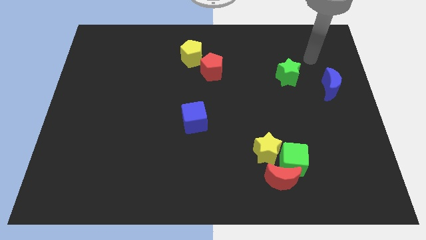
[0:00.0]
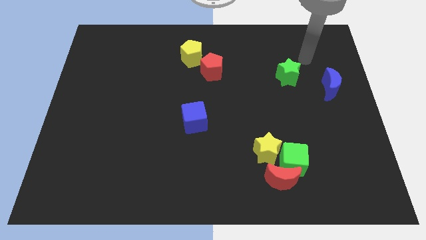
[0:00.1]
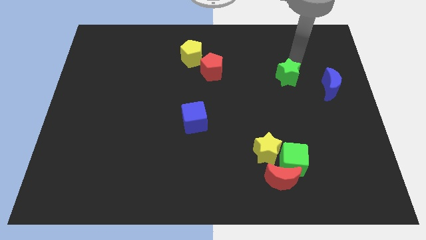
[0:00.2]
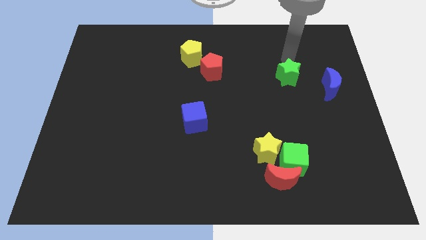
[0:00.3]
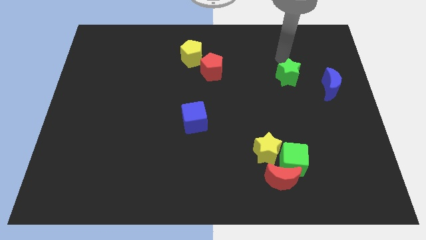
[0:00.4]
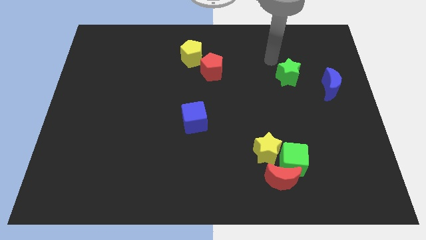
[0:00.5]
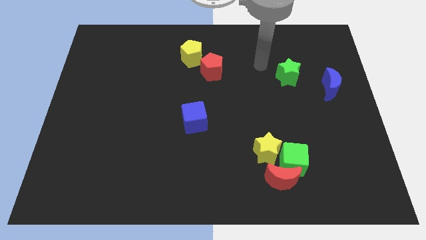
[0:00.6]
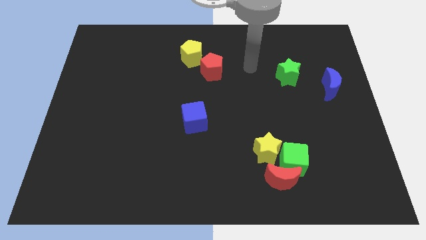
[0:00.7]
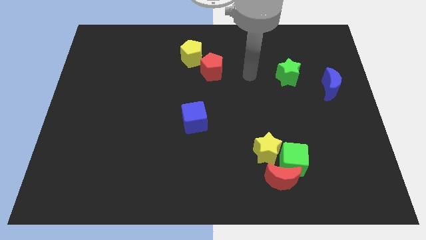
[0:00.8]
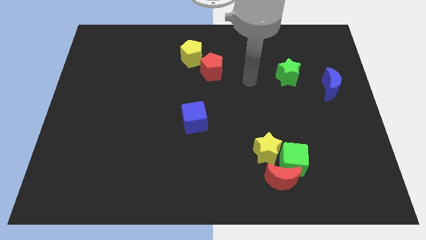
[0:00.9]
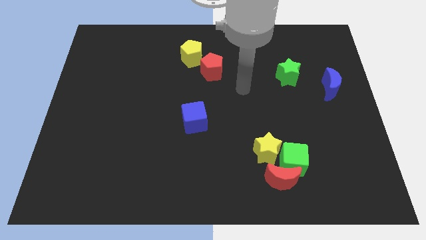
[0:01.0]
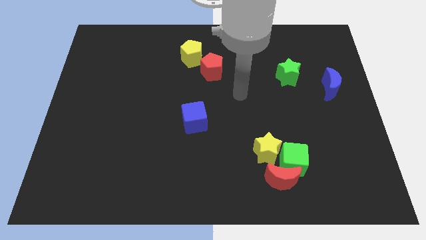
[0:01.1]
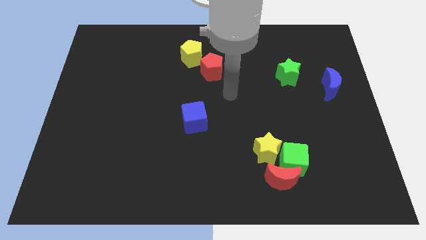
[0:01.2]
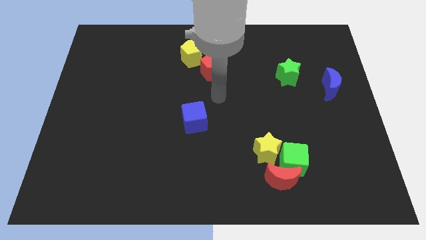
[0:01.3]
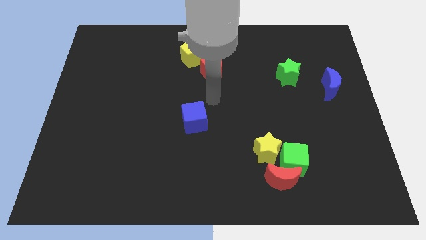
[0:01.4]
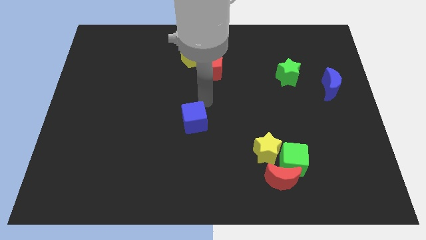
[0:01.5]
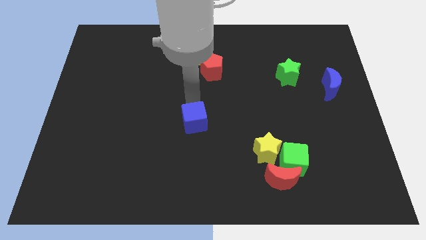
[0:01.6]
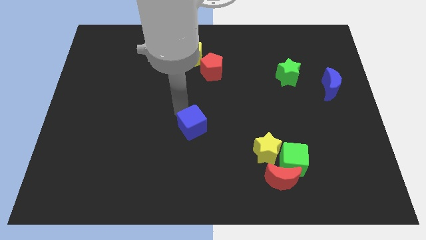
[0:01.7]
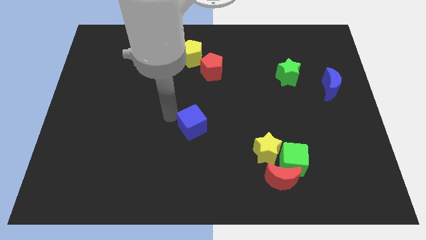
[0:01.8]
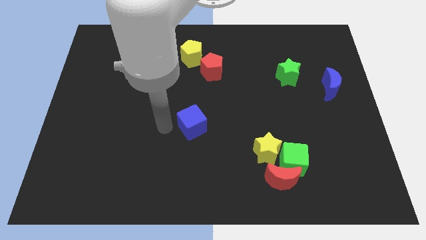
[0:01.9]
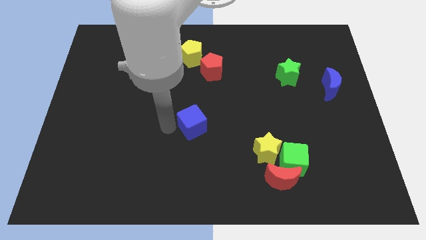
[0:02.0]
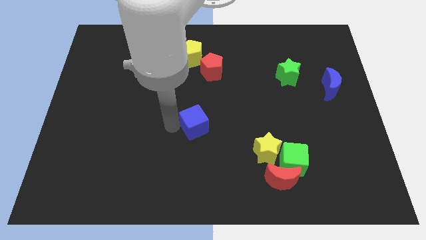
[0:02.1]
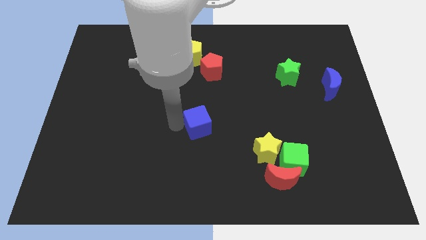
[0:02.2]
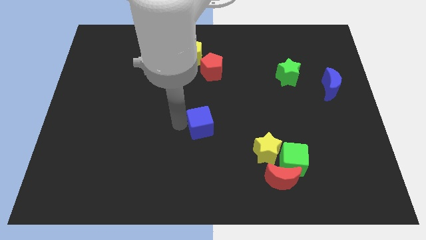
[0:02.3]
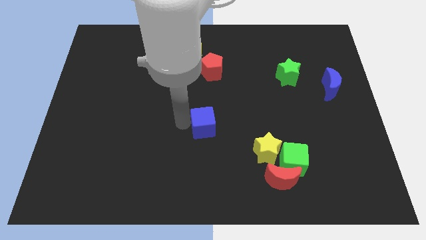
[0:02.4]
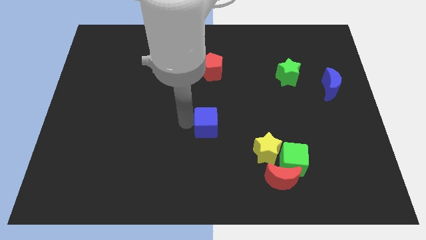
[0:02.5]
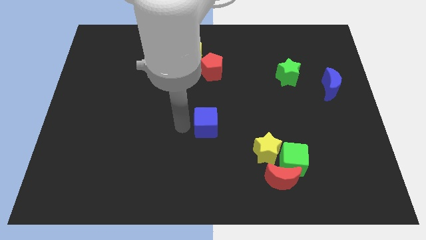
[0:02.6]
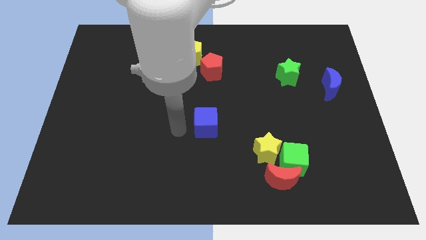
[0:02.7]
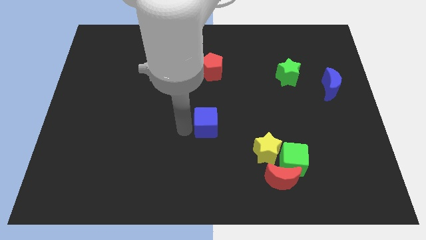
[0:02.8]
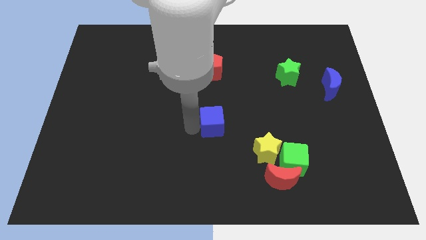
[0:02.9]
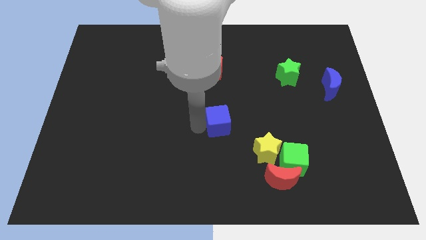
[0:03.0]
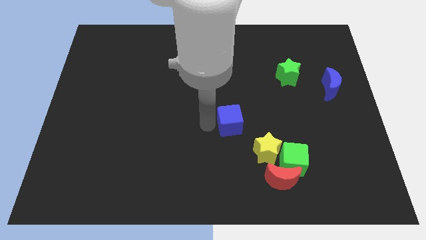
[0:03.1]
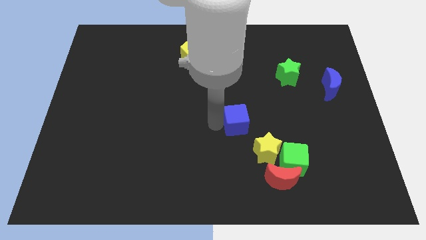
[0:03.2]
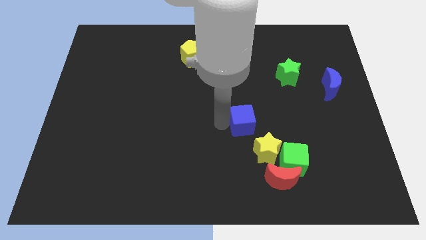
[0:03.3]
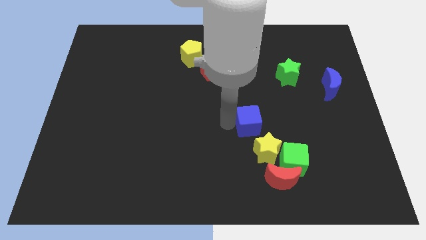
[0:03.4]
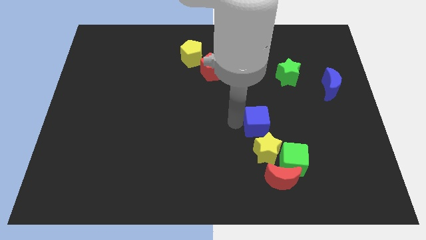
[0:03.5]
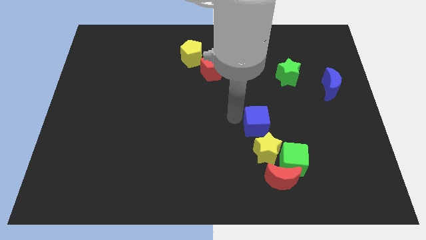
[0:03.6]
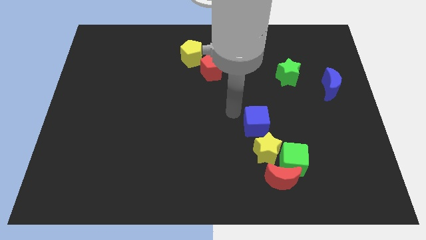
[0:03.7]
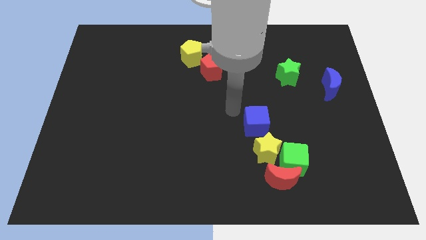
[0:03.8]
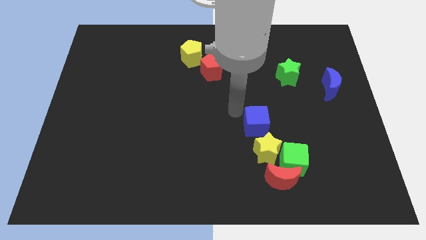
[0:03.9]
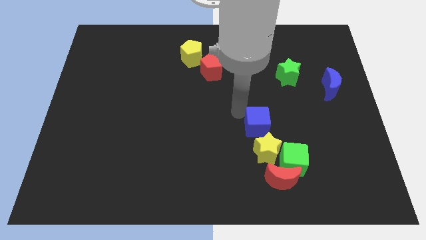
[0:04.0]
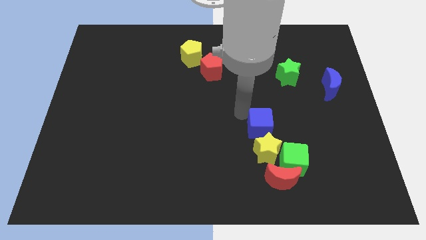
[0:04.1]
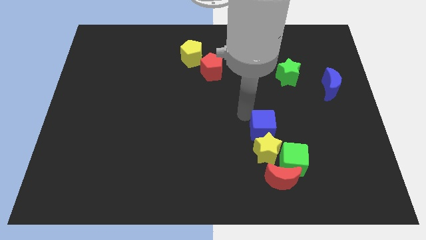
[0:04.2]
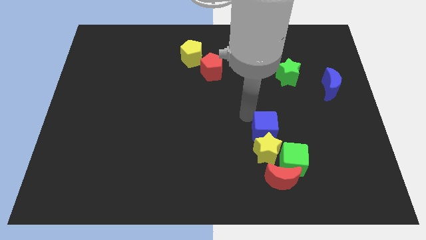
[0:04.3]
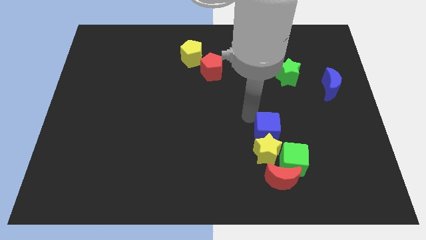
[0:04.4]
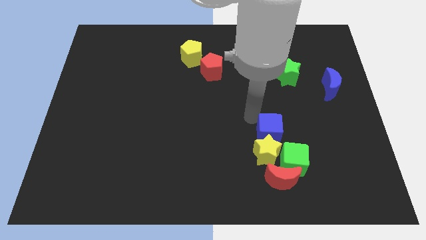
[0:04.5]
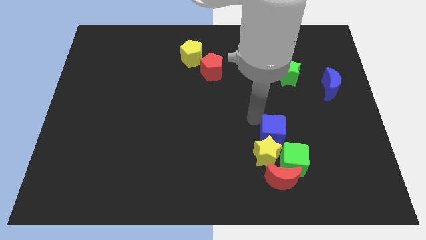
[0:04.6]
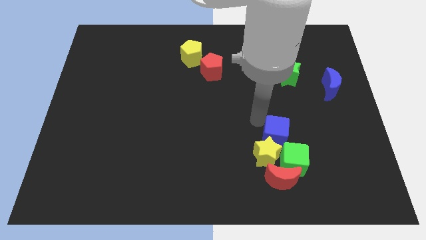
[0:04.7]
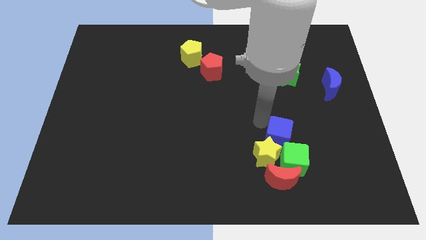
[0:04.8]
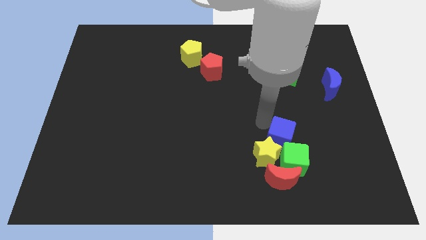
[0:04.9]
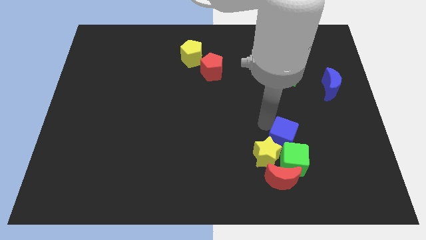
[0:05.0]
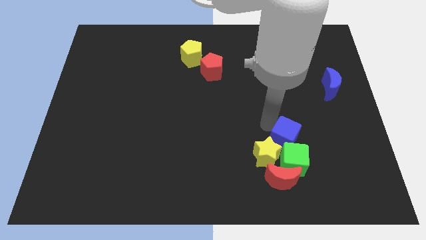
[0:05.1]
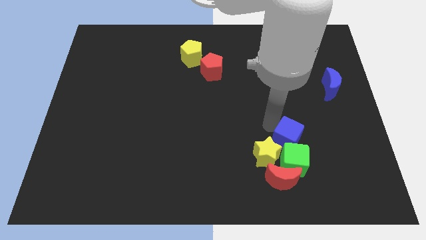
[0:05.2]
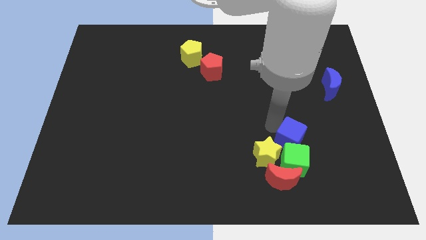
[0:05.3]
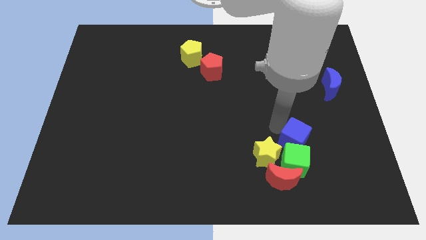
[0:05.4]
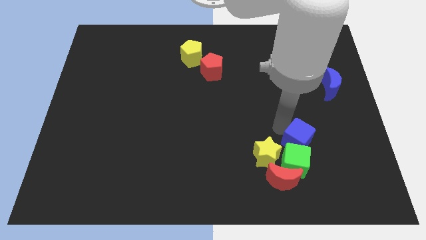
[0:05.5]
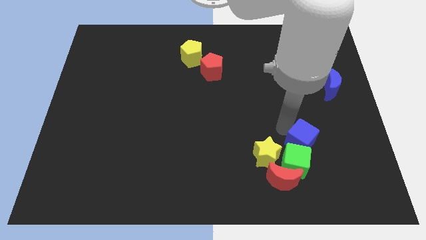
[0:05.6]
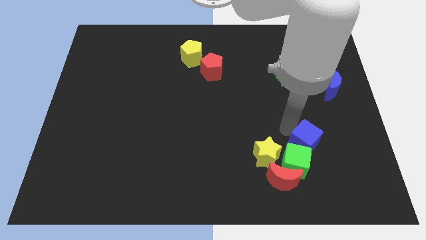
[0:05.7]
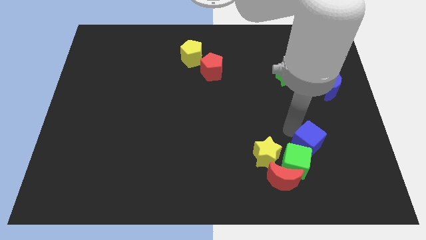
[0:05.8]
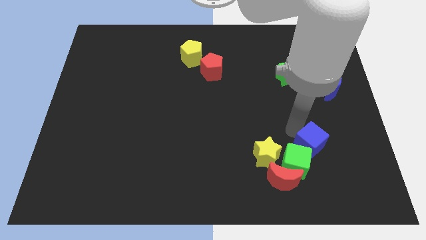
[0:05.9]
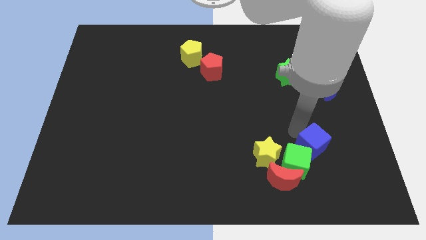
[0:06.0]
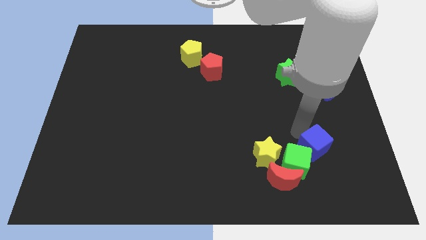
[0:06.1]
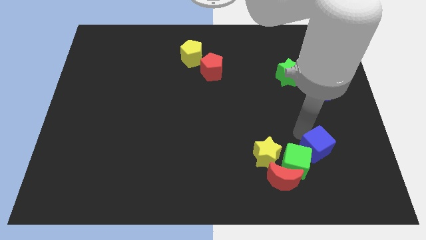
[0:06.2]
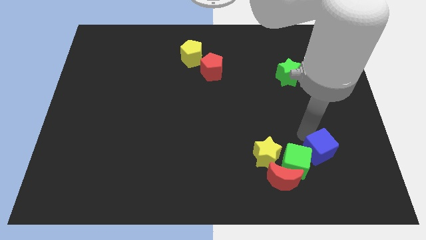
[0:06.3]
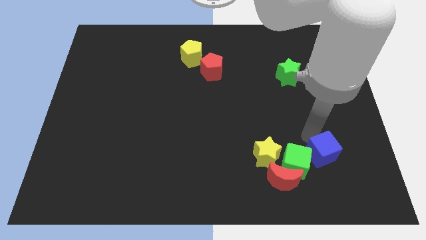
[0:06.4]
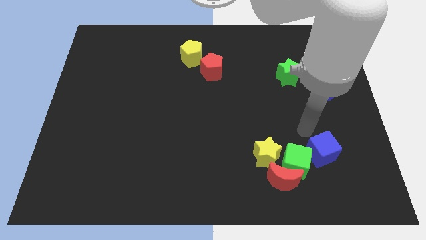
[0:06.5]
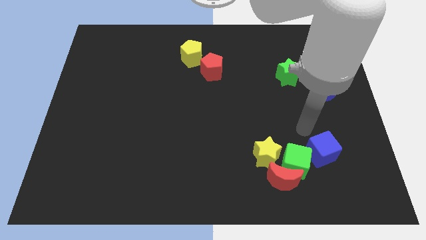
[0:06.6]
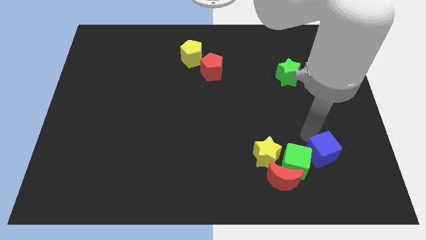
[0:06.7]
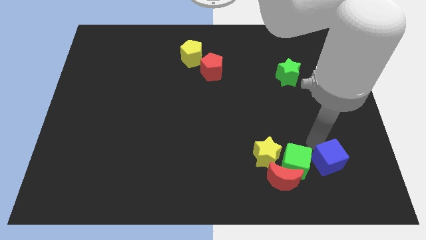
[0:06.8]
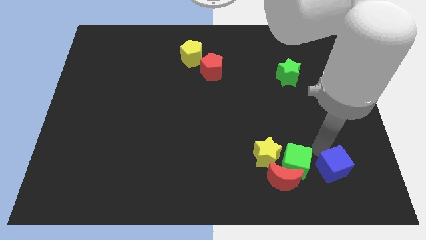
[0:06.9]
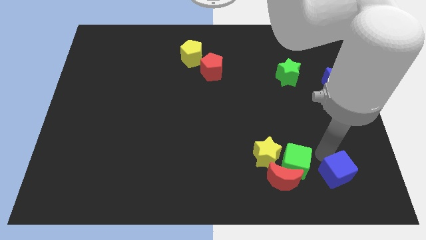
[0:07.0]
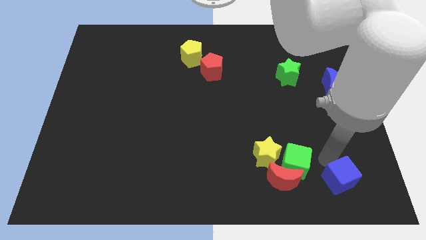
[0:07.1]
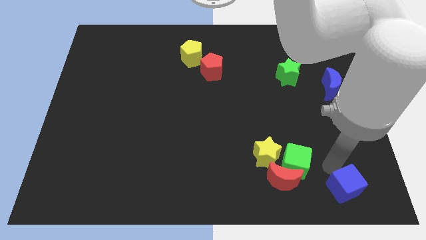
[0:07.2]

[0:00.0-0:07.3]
push the blue cube to the bottom right

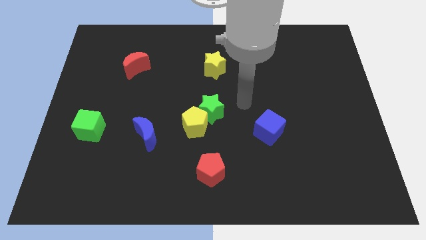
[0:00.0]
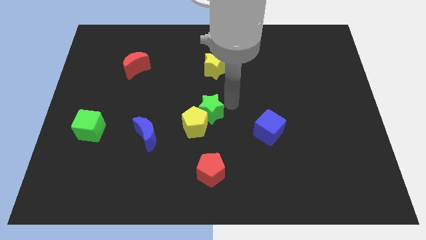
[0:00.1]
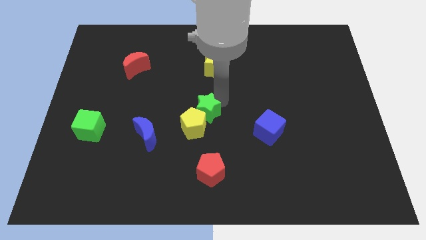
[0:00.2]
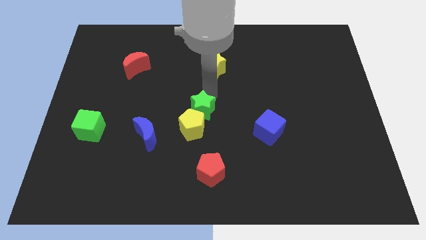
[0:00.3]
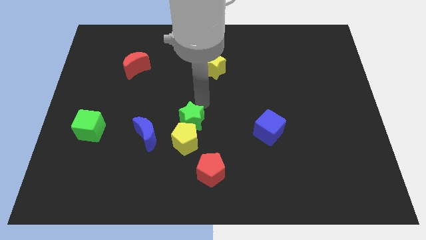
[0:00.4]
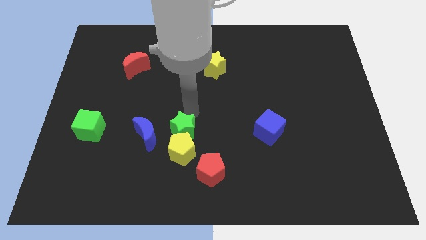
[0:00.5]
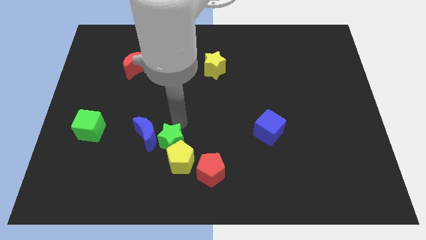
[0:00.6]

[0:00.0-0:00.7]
push the yellow pentagon to the bottom side
